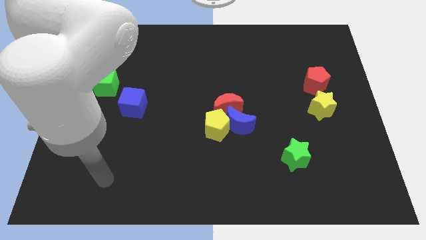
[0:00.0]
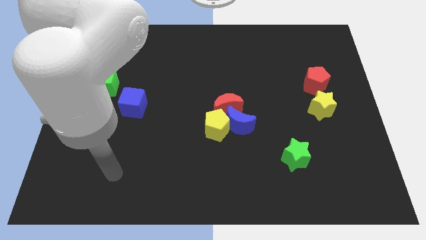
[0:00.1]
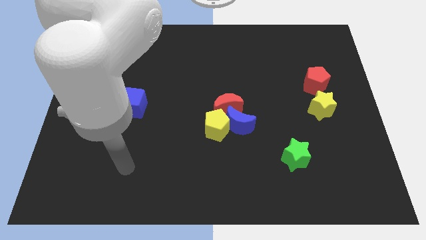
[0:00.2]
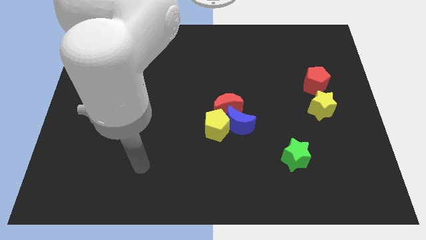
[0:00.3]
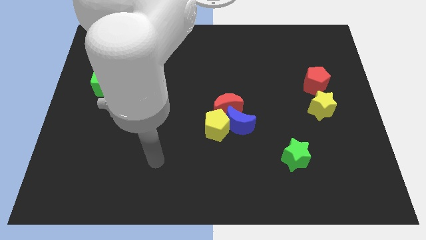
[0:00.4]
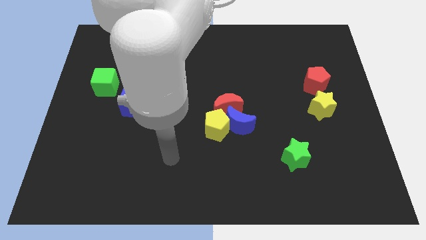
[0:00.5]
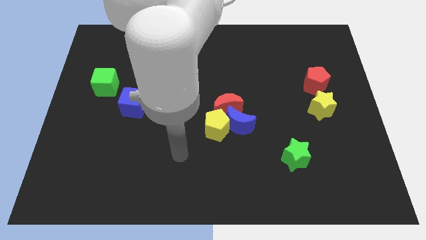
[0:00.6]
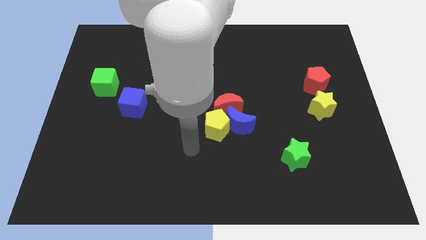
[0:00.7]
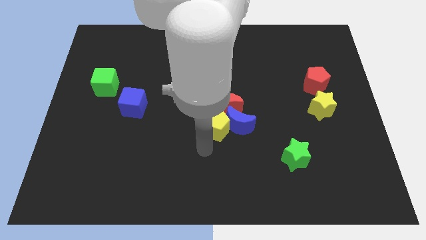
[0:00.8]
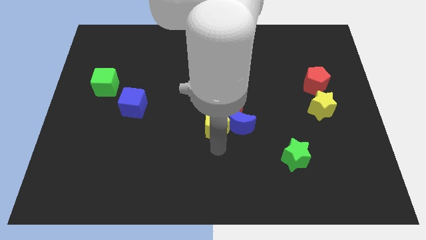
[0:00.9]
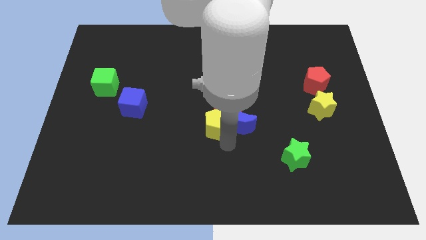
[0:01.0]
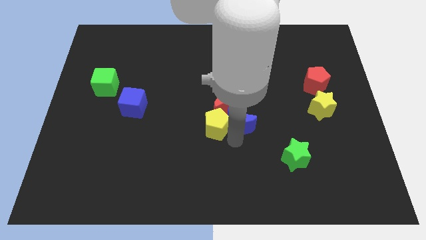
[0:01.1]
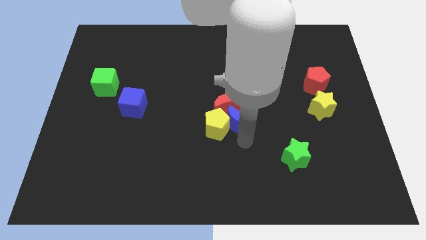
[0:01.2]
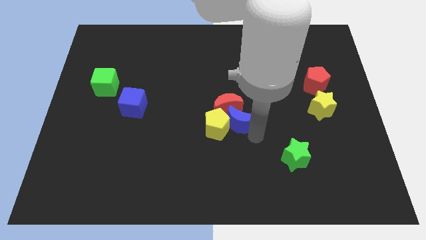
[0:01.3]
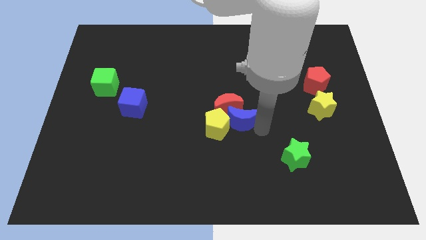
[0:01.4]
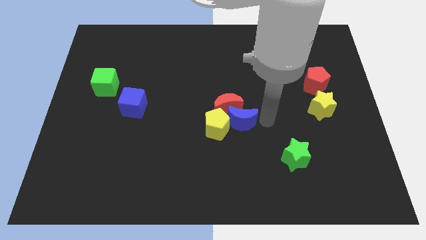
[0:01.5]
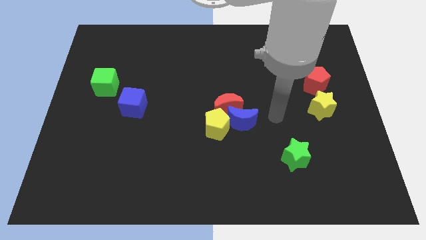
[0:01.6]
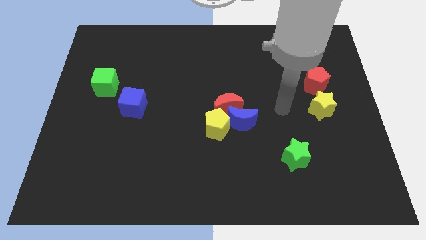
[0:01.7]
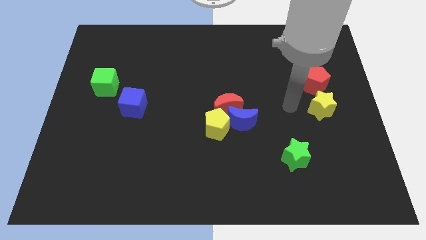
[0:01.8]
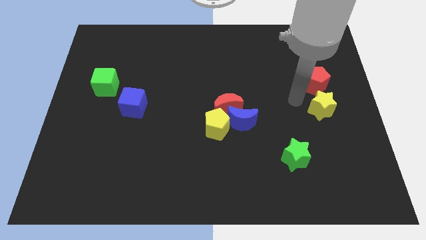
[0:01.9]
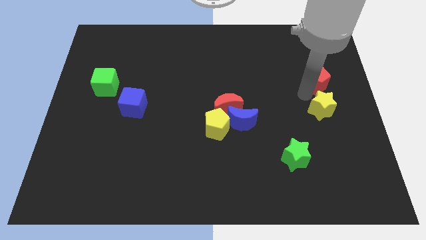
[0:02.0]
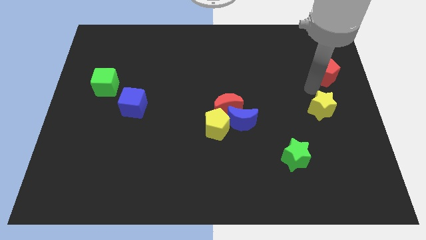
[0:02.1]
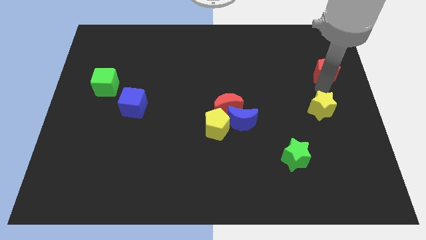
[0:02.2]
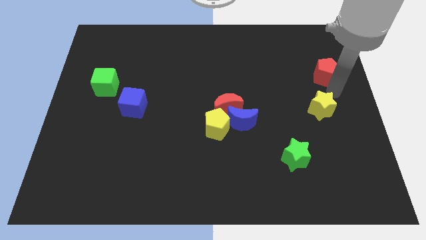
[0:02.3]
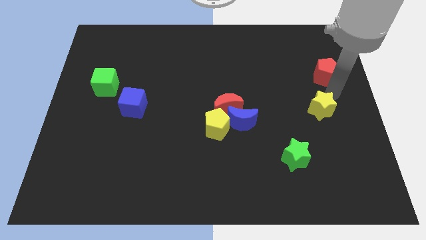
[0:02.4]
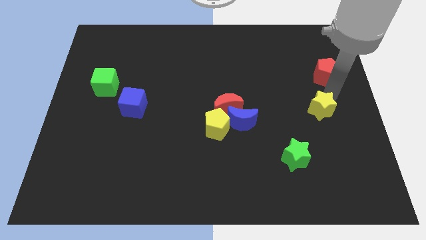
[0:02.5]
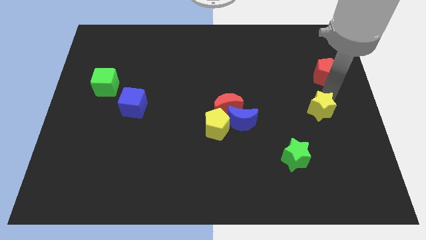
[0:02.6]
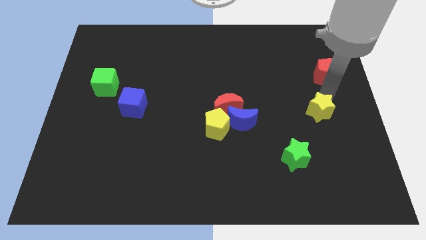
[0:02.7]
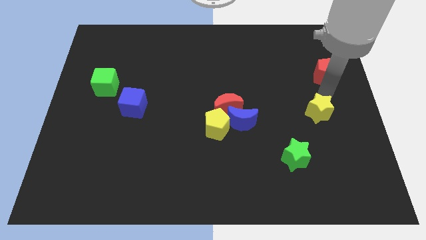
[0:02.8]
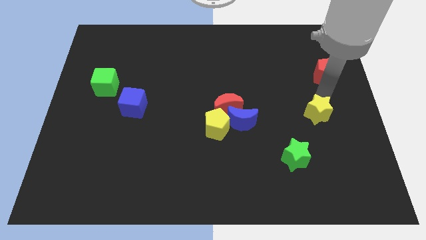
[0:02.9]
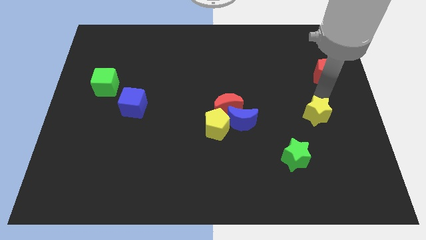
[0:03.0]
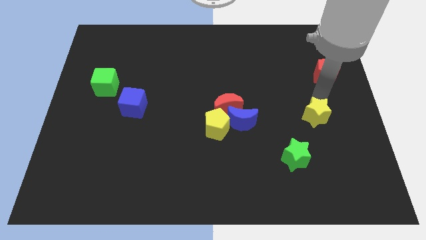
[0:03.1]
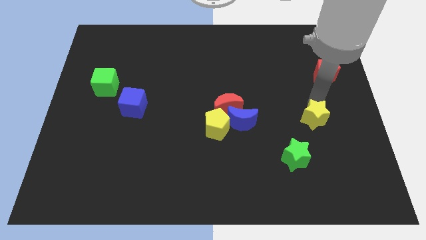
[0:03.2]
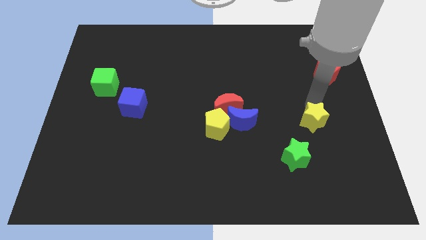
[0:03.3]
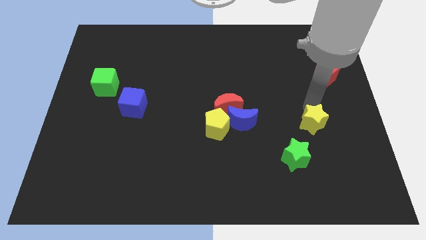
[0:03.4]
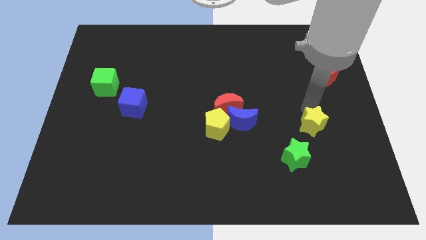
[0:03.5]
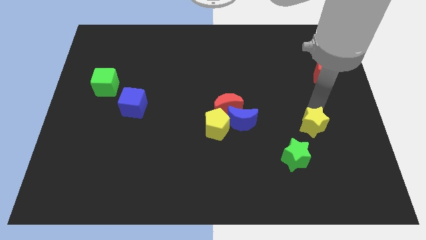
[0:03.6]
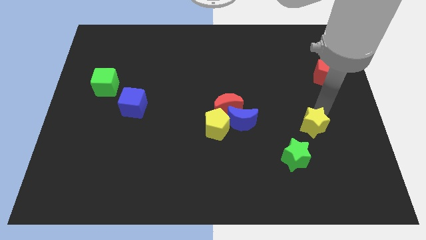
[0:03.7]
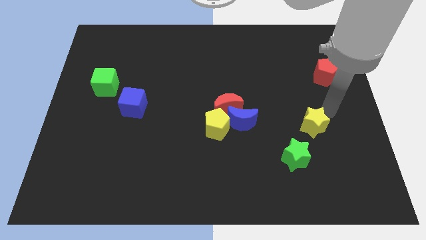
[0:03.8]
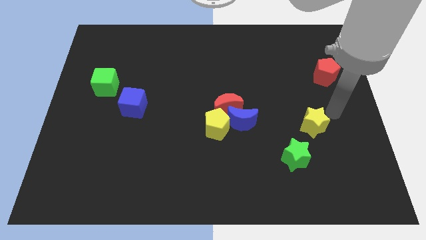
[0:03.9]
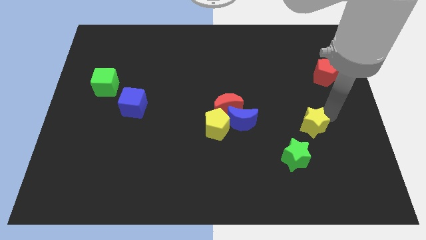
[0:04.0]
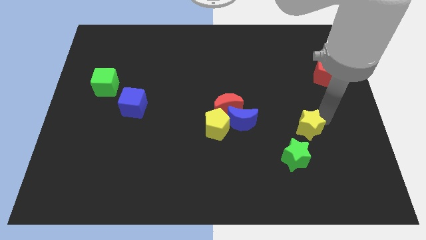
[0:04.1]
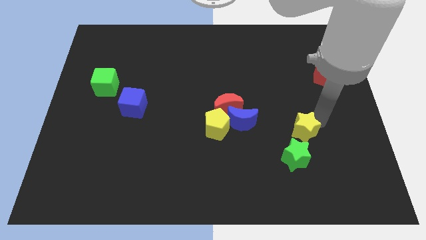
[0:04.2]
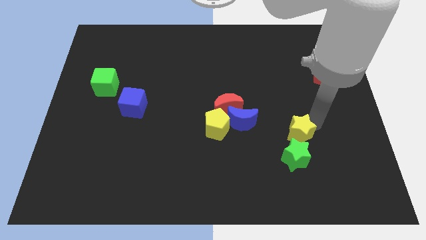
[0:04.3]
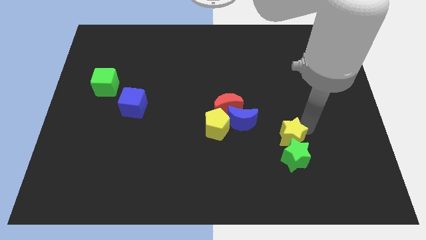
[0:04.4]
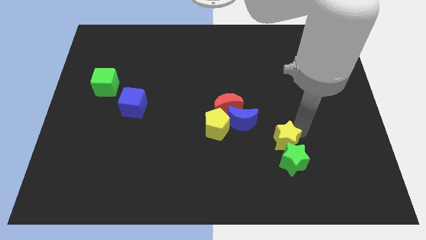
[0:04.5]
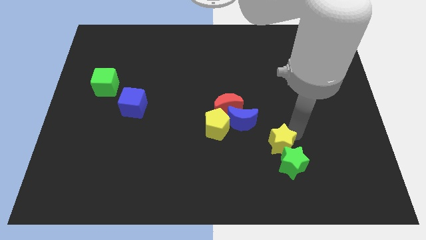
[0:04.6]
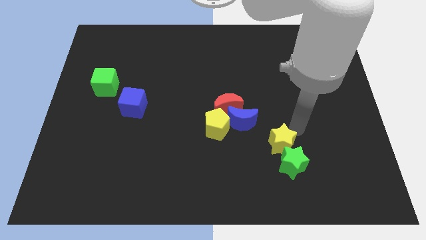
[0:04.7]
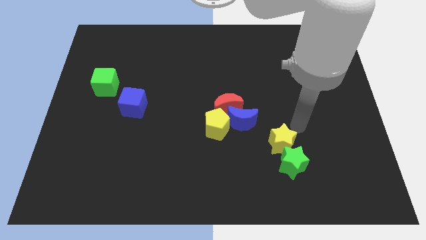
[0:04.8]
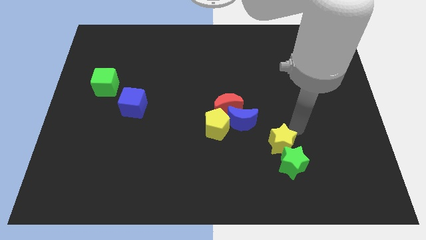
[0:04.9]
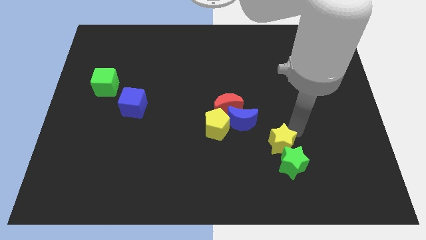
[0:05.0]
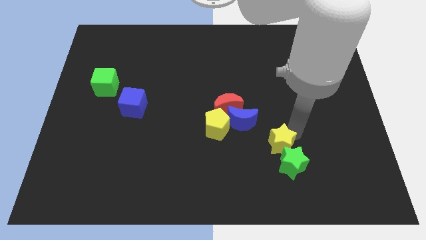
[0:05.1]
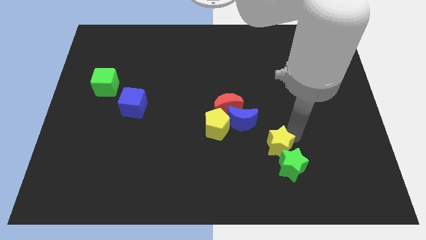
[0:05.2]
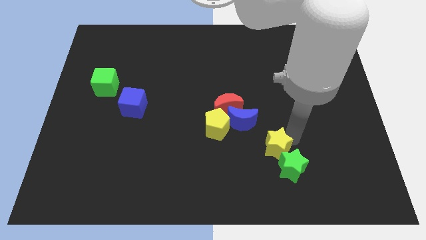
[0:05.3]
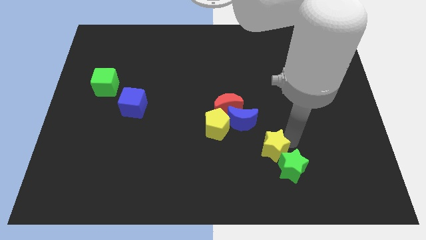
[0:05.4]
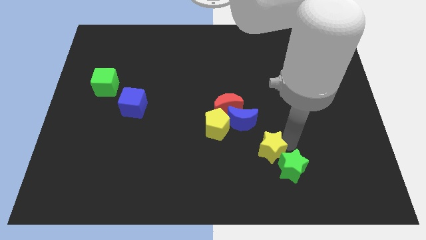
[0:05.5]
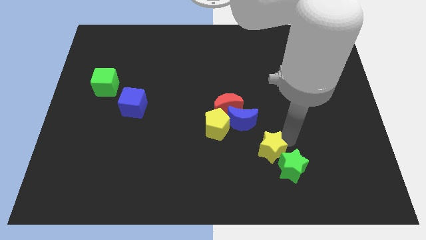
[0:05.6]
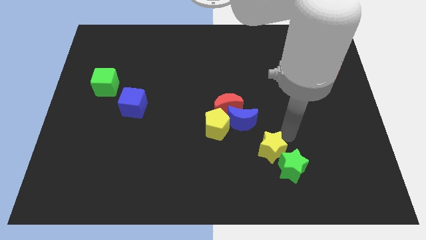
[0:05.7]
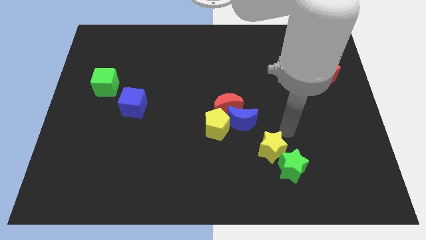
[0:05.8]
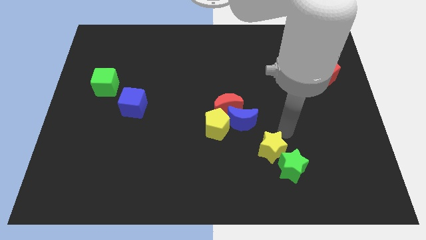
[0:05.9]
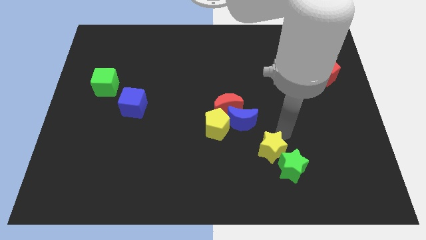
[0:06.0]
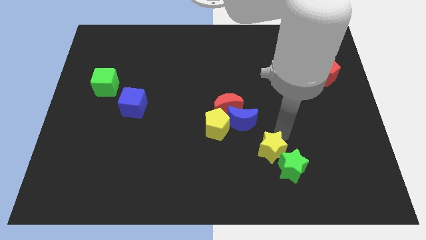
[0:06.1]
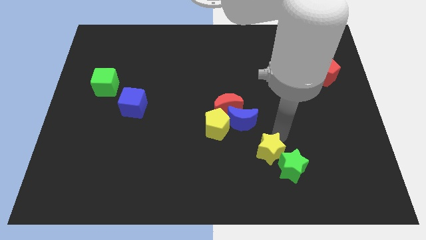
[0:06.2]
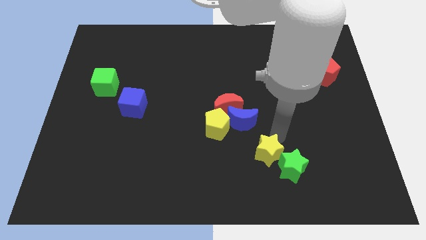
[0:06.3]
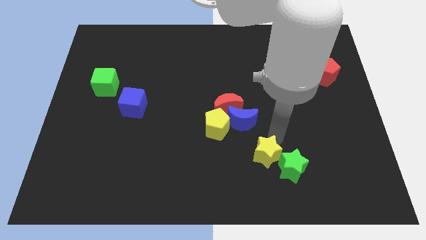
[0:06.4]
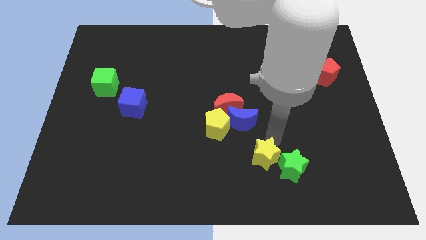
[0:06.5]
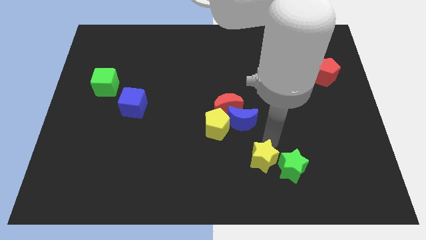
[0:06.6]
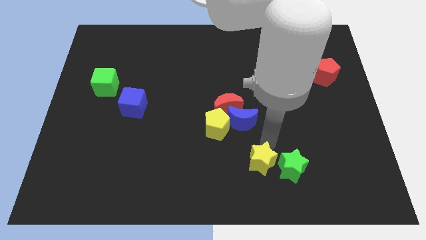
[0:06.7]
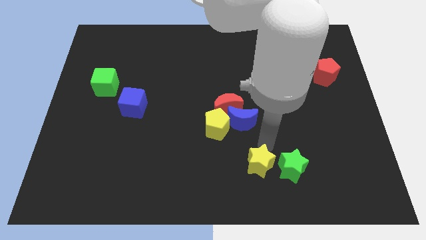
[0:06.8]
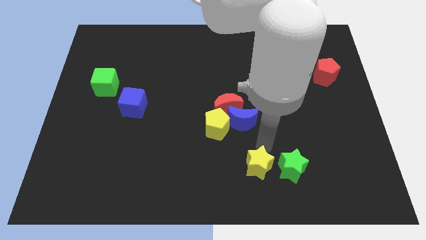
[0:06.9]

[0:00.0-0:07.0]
push the yellow star to the bottom side

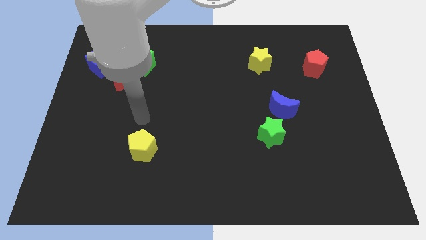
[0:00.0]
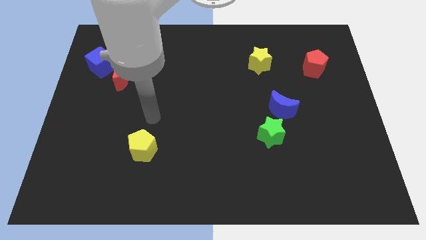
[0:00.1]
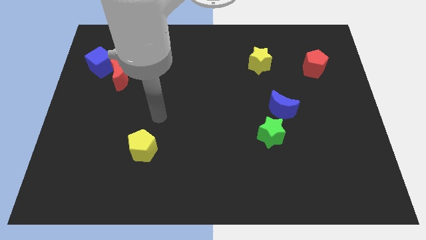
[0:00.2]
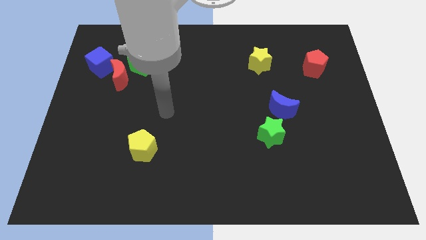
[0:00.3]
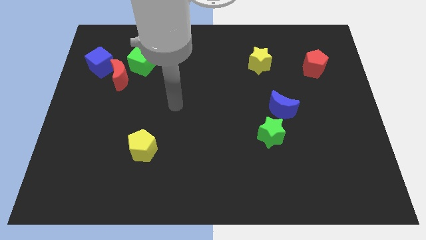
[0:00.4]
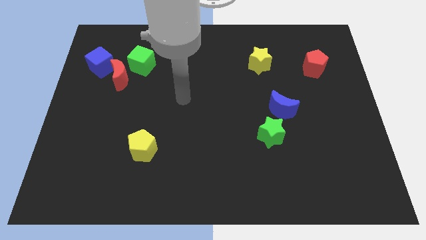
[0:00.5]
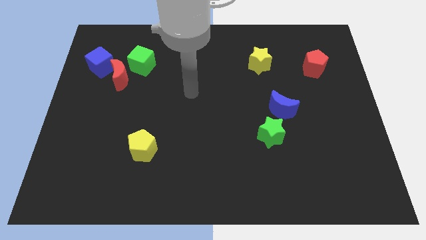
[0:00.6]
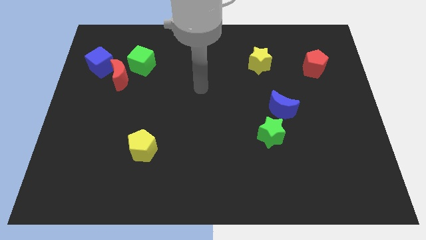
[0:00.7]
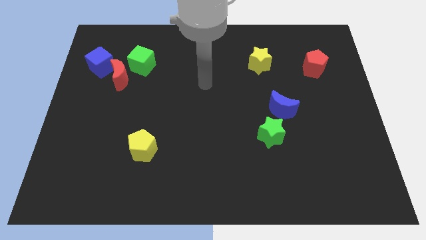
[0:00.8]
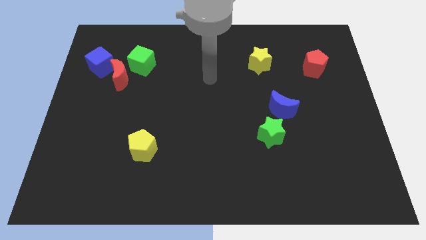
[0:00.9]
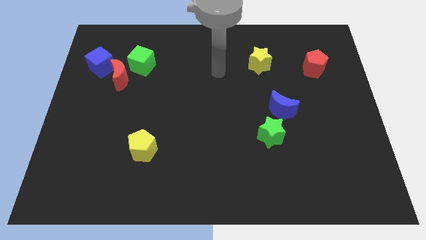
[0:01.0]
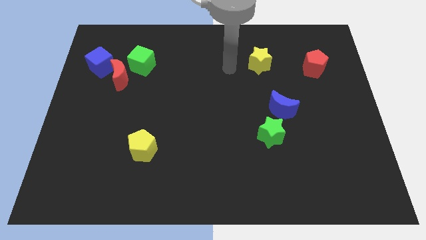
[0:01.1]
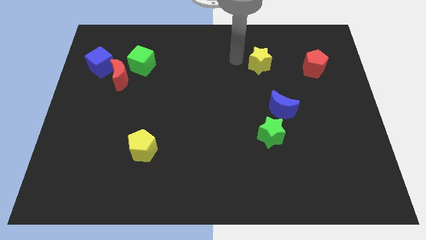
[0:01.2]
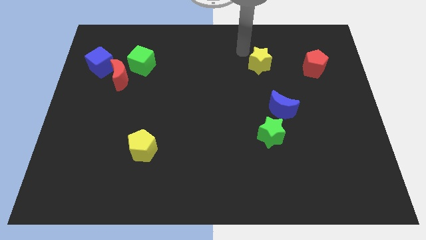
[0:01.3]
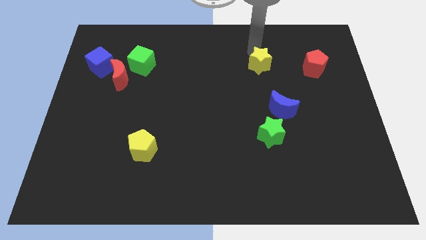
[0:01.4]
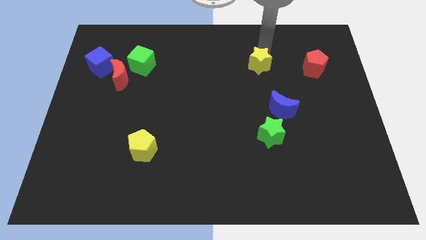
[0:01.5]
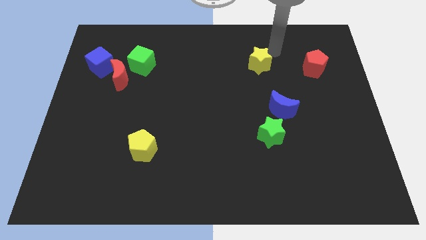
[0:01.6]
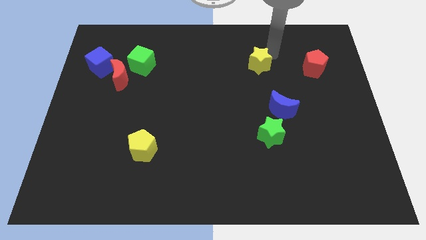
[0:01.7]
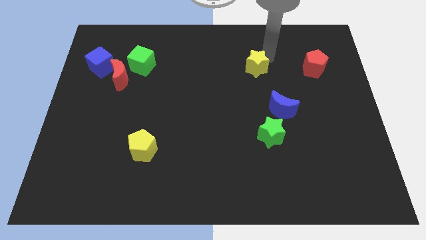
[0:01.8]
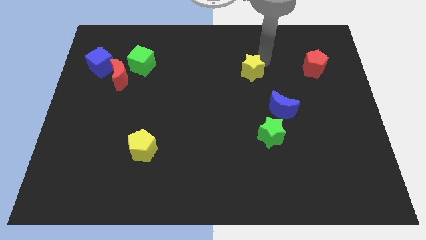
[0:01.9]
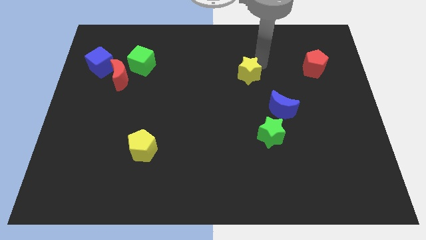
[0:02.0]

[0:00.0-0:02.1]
move the yellow star to the middle of the board
